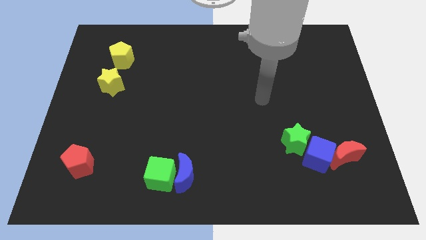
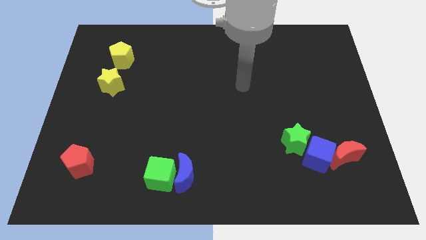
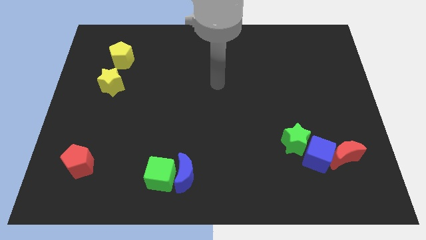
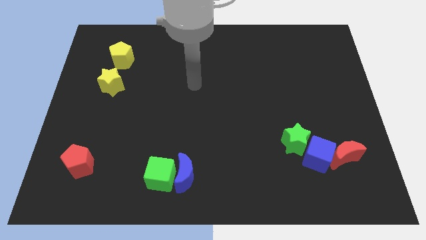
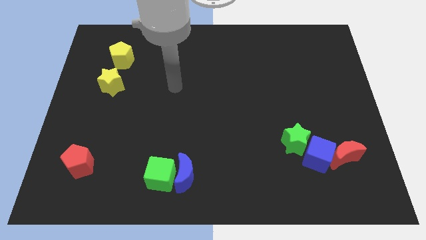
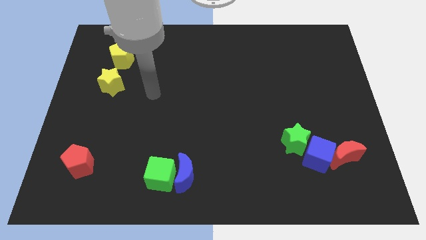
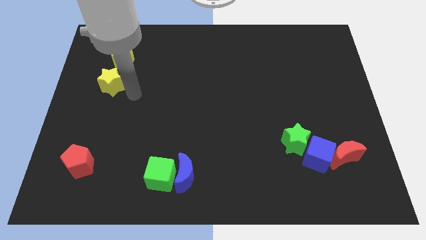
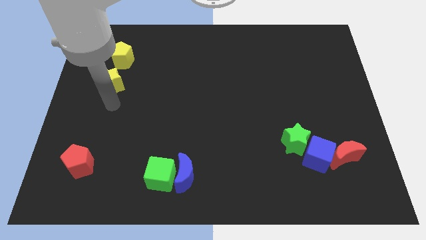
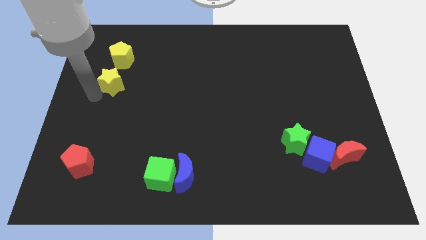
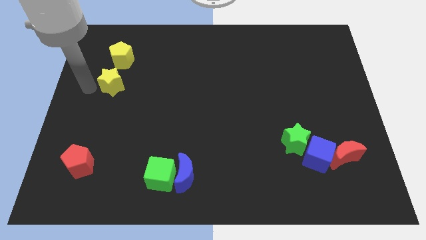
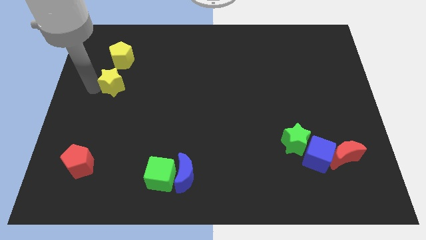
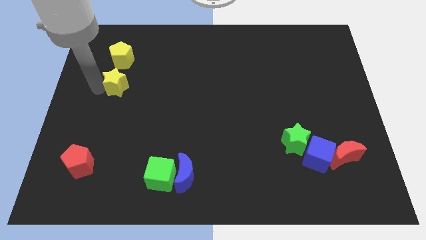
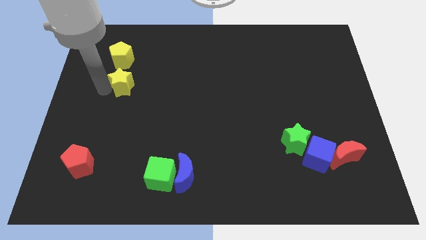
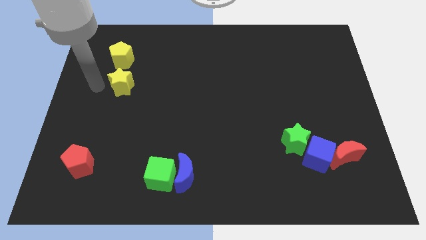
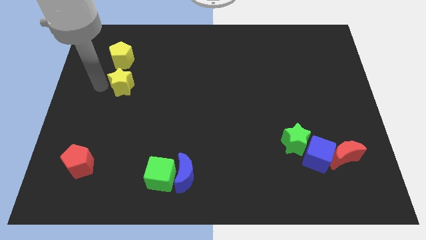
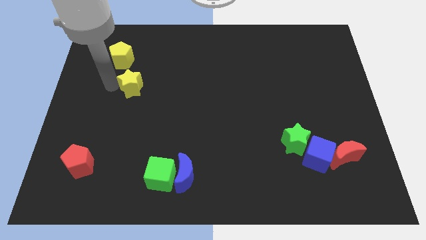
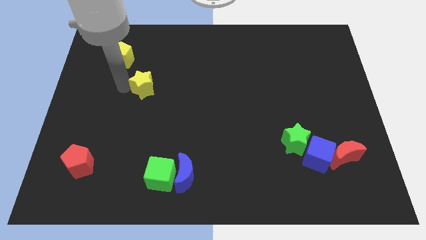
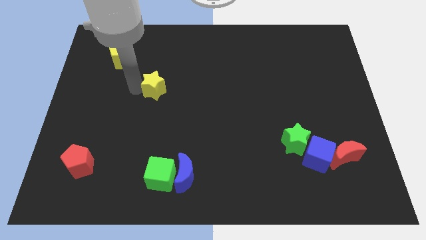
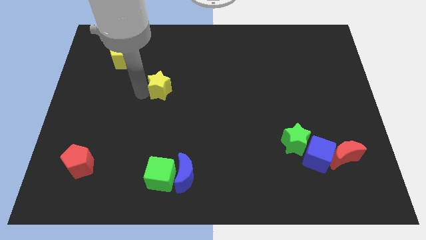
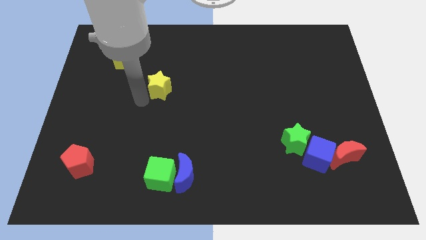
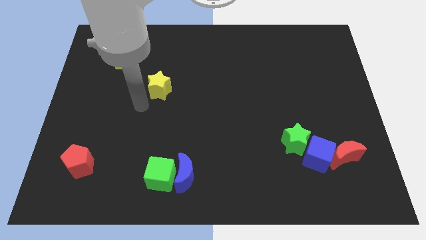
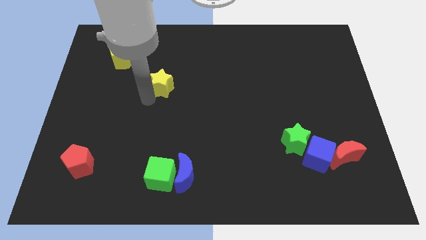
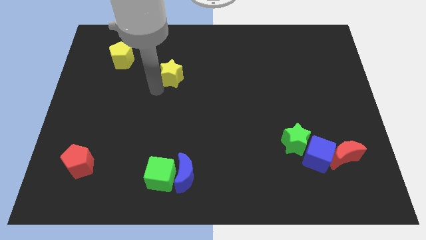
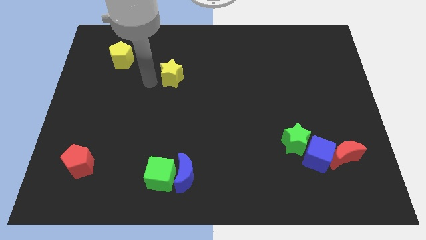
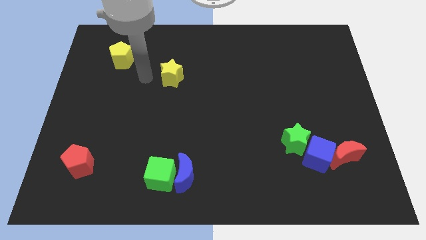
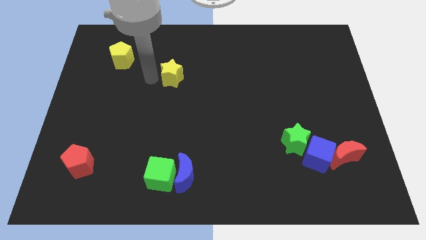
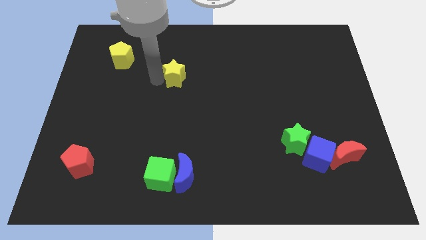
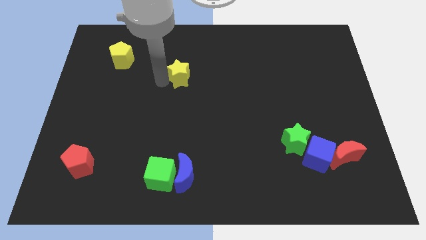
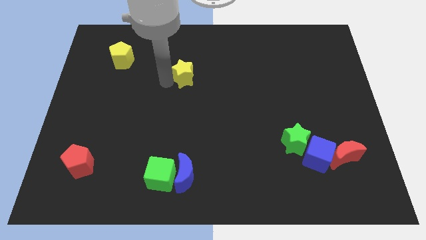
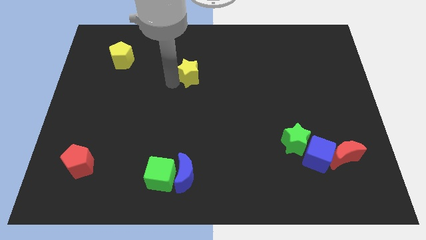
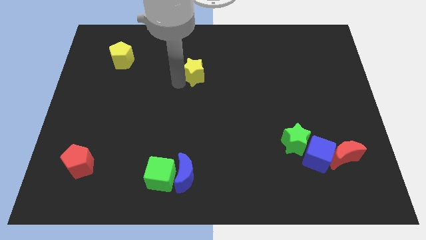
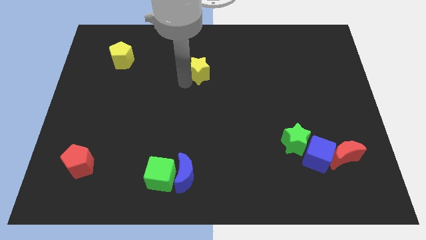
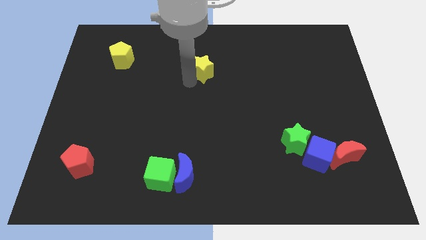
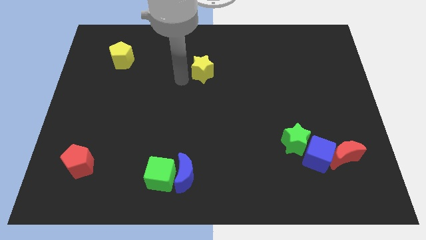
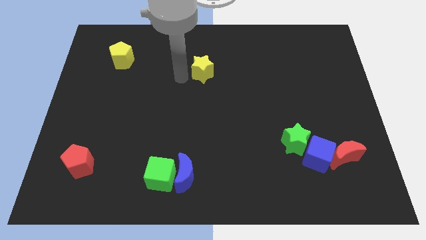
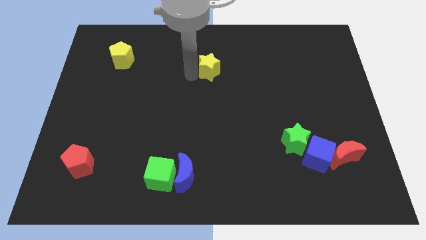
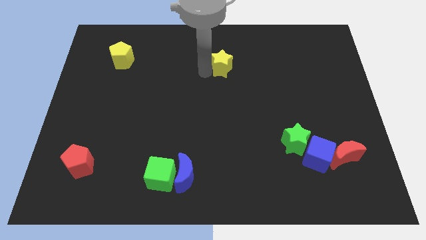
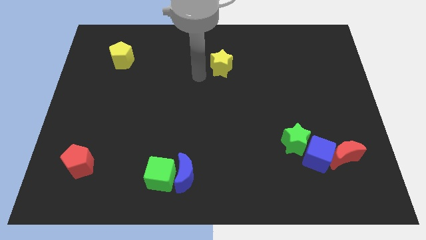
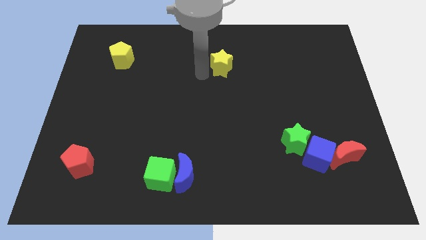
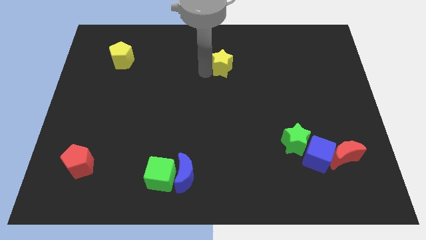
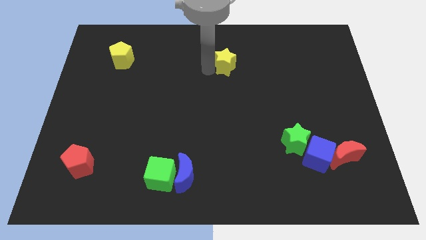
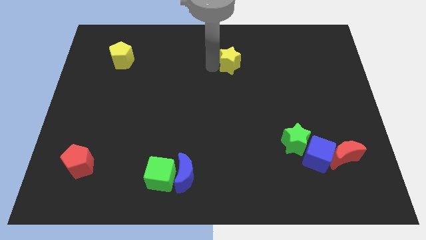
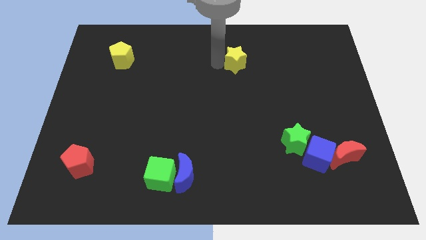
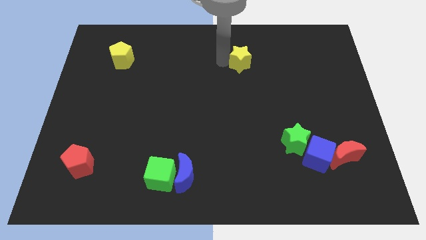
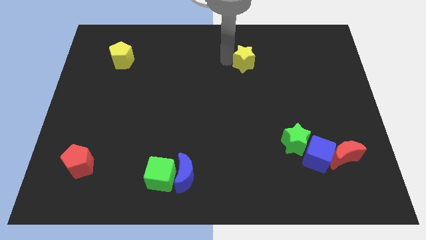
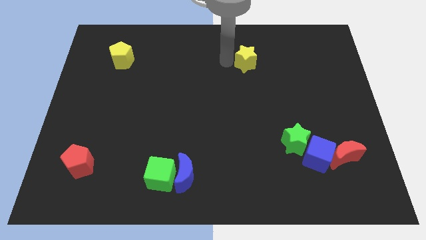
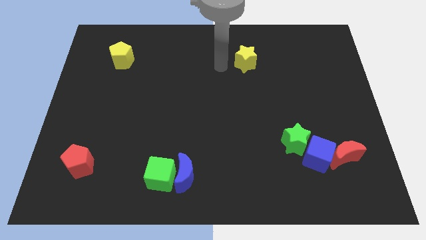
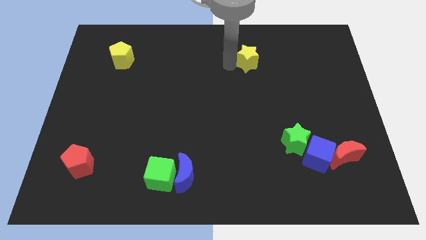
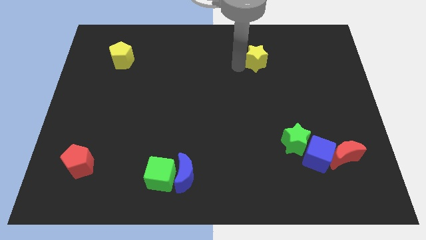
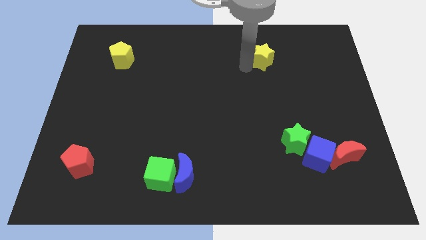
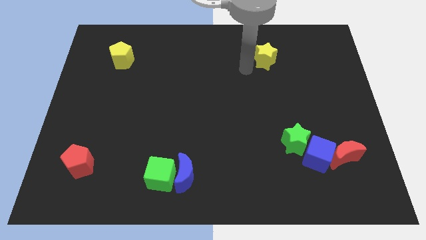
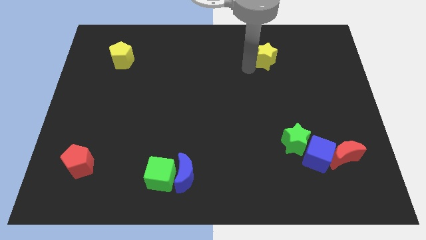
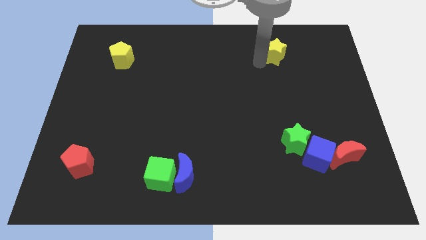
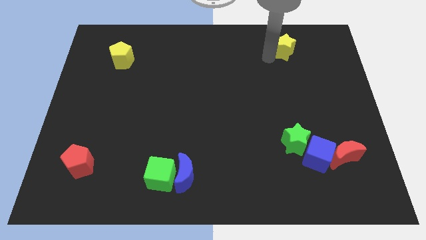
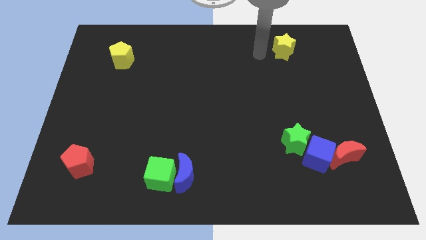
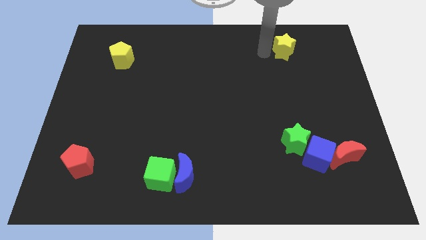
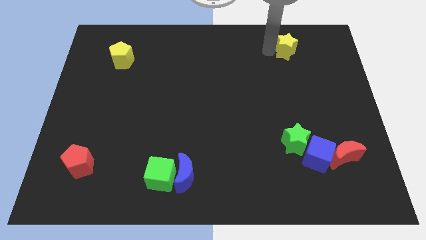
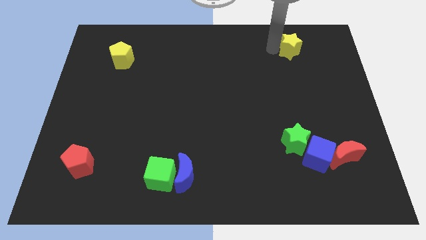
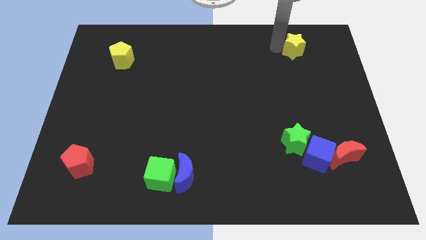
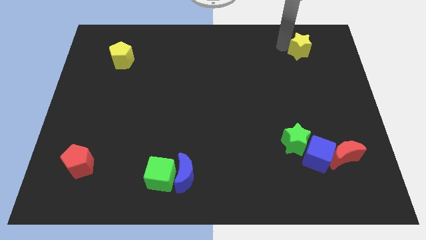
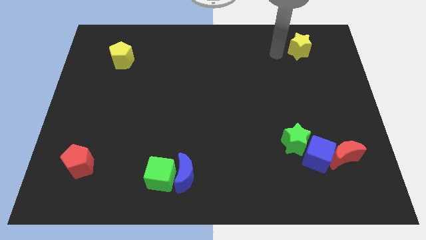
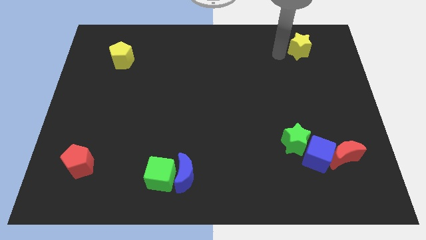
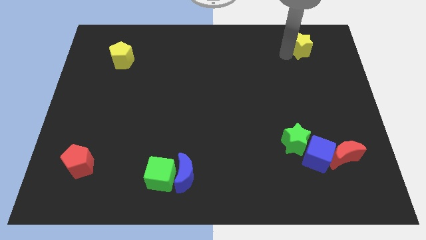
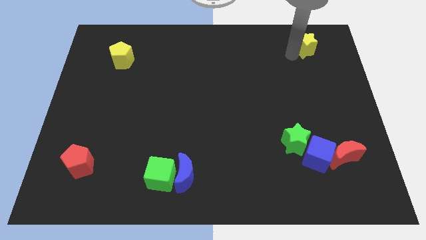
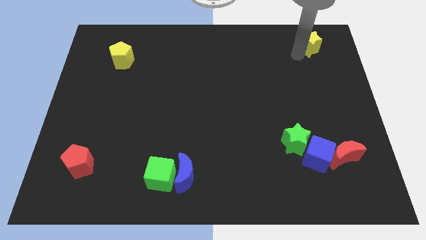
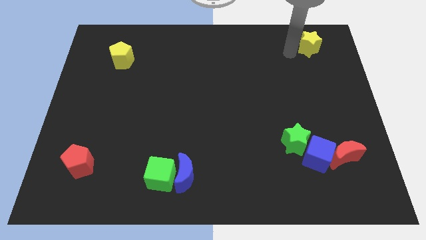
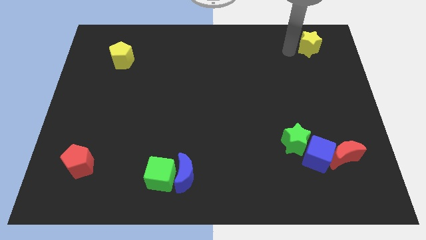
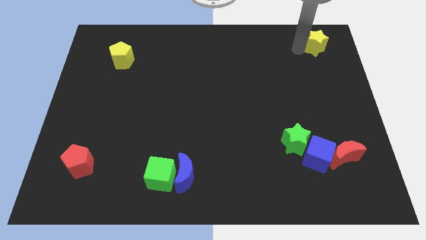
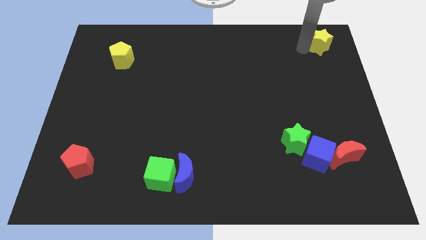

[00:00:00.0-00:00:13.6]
put the yellow star to the top right
